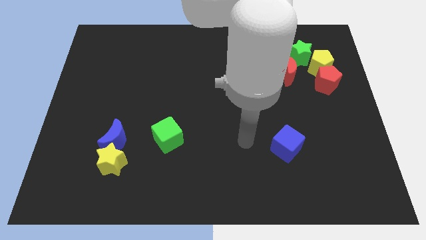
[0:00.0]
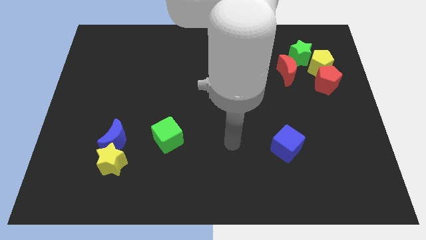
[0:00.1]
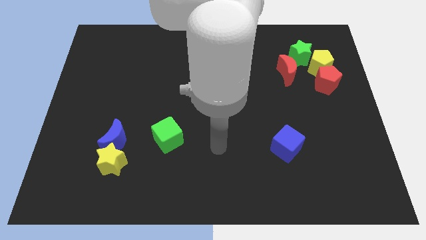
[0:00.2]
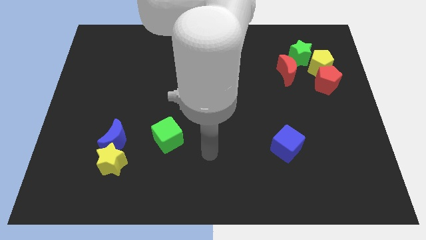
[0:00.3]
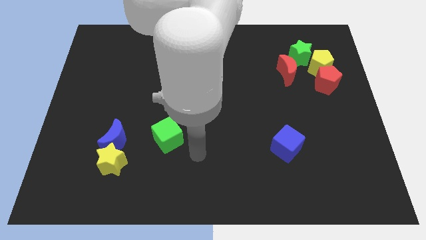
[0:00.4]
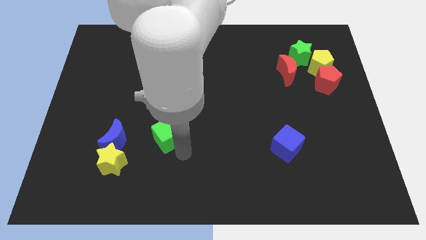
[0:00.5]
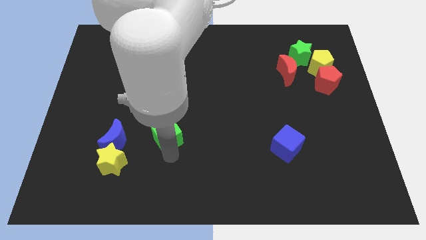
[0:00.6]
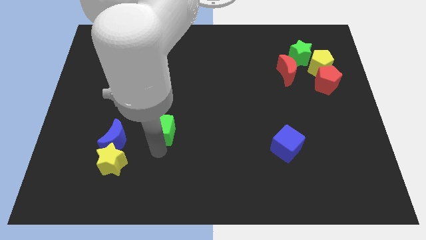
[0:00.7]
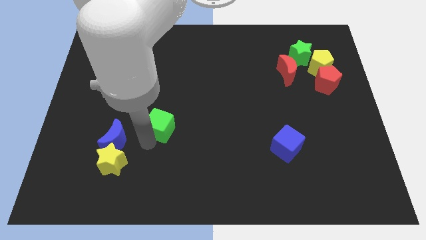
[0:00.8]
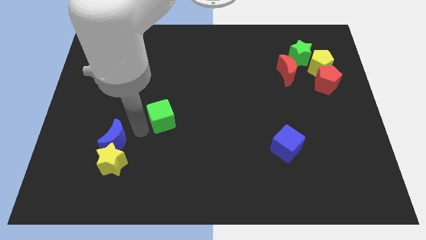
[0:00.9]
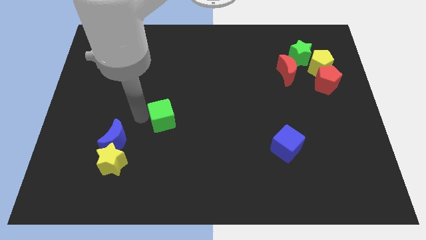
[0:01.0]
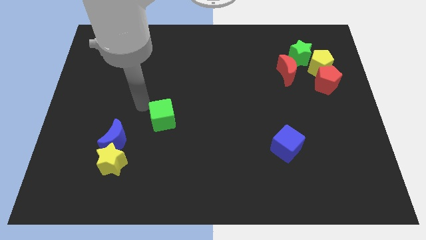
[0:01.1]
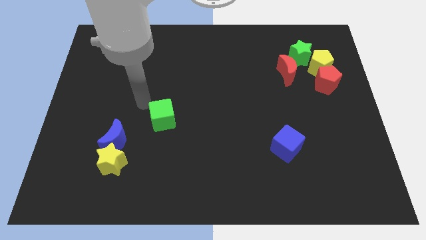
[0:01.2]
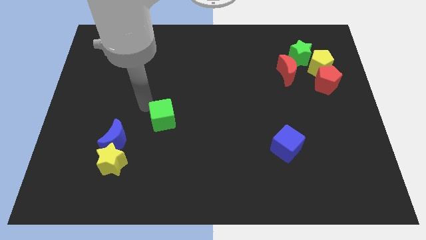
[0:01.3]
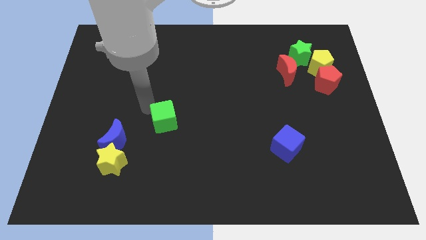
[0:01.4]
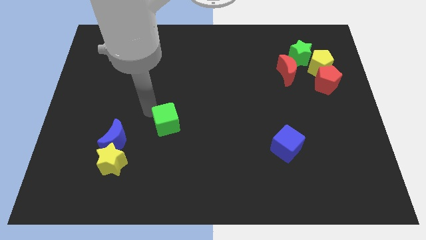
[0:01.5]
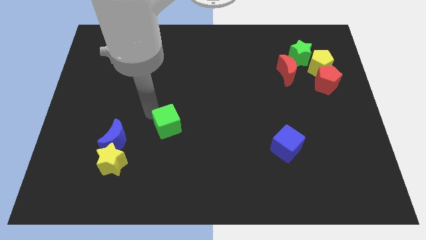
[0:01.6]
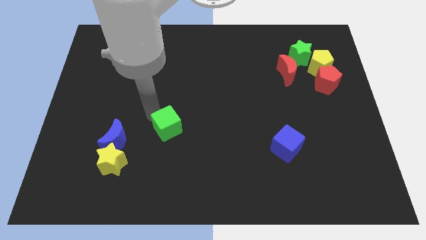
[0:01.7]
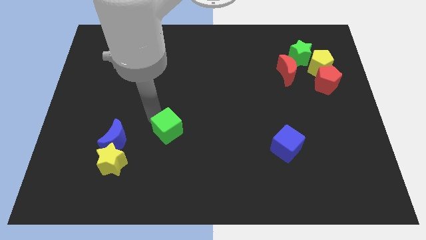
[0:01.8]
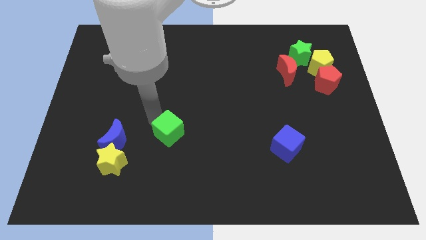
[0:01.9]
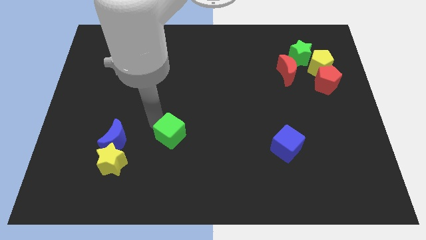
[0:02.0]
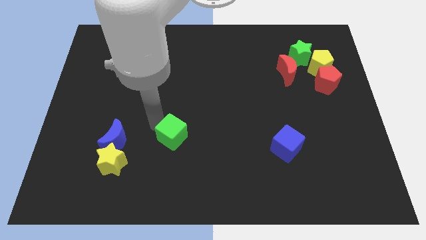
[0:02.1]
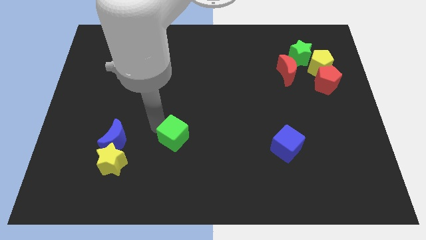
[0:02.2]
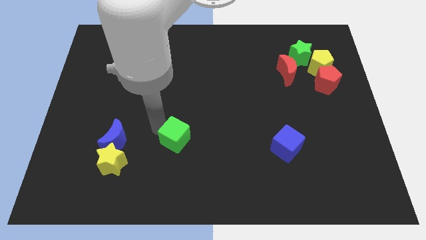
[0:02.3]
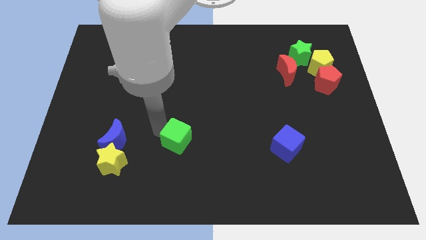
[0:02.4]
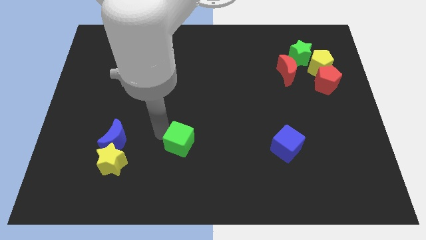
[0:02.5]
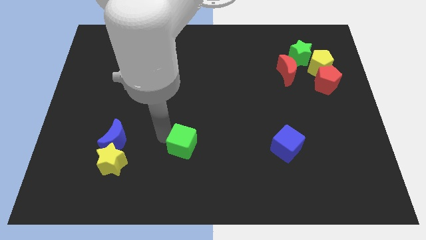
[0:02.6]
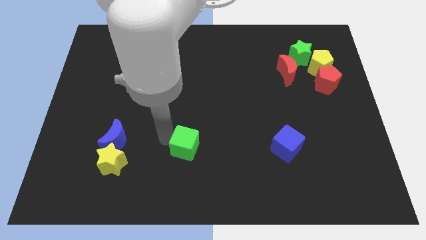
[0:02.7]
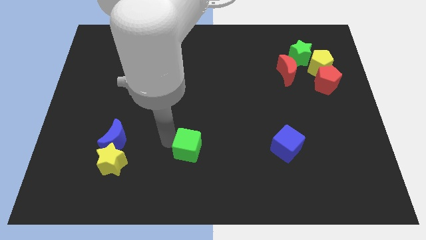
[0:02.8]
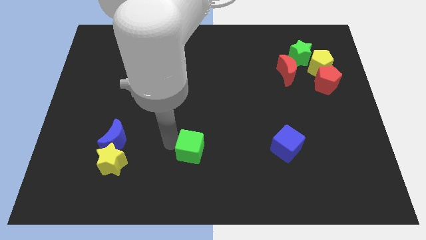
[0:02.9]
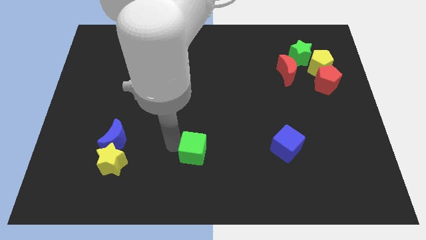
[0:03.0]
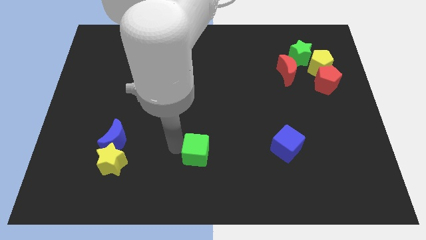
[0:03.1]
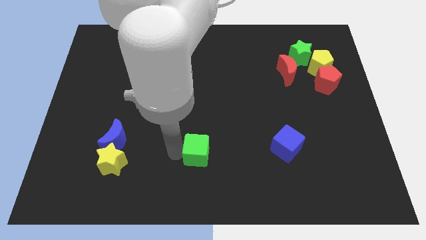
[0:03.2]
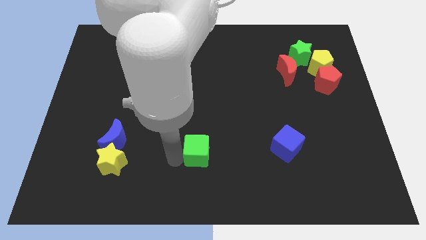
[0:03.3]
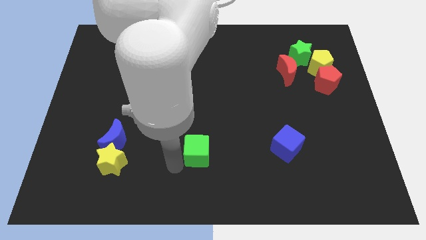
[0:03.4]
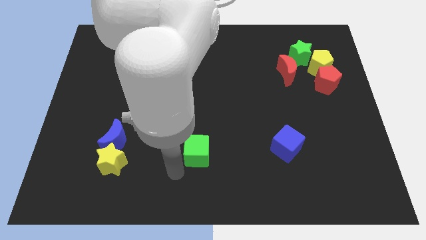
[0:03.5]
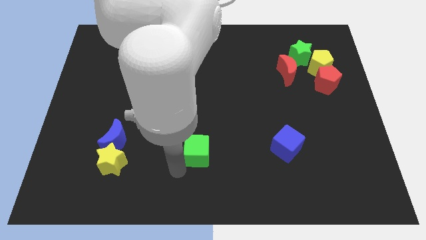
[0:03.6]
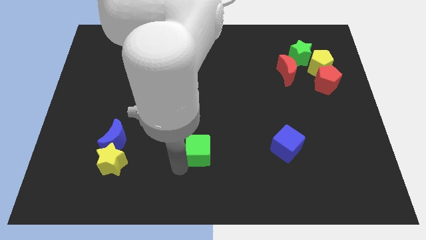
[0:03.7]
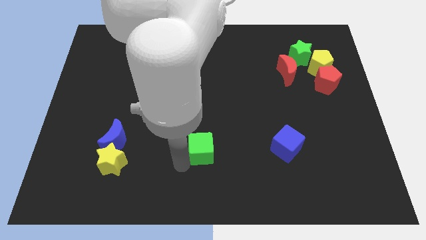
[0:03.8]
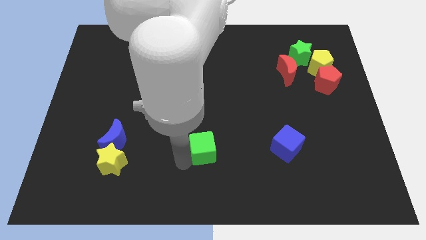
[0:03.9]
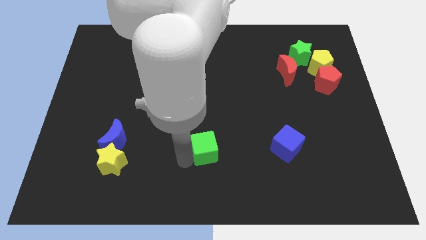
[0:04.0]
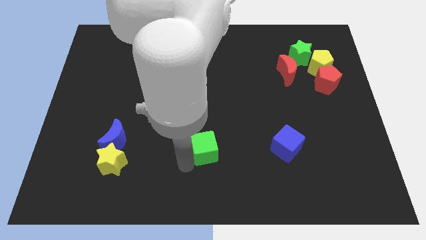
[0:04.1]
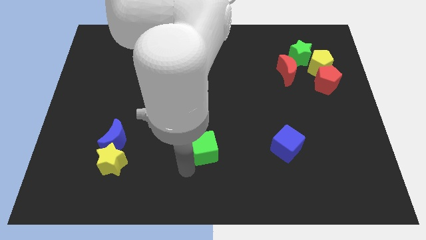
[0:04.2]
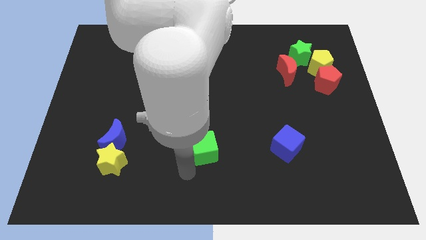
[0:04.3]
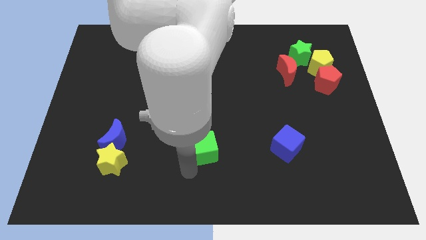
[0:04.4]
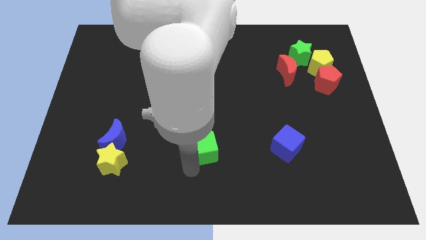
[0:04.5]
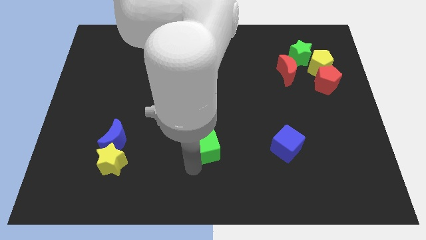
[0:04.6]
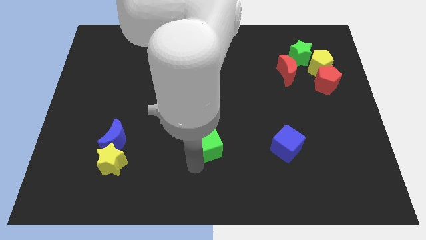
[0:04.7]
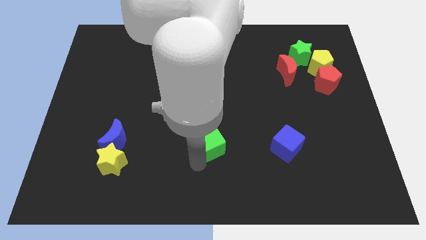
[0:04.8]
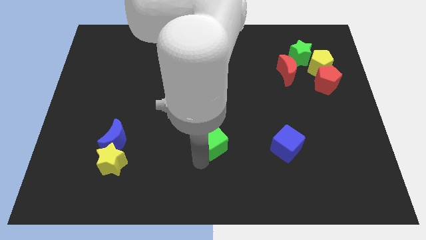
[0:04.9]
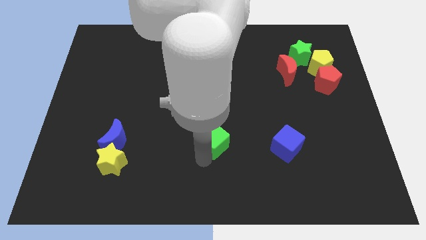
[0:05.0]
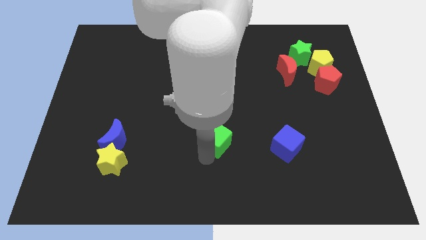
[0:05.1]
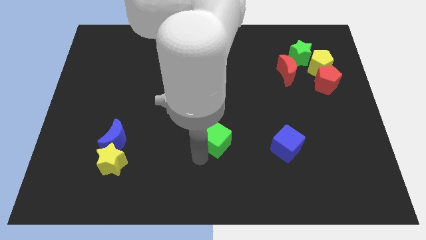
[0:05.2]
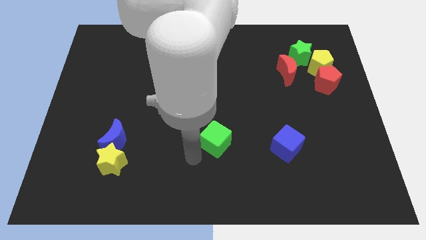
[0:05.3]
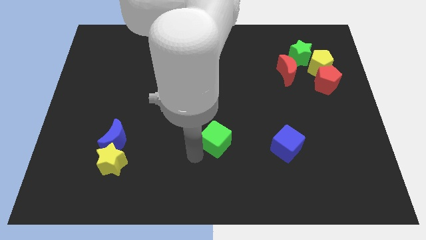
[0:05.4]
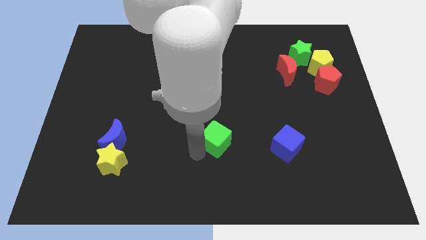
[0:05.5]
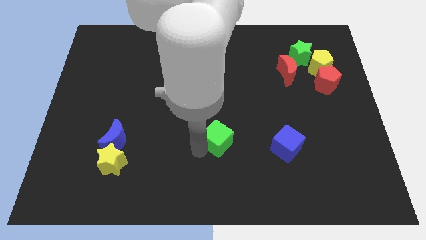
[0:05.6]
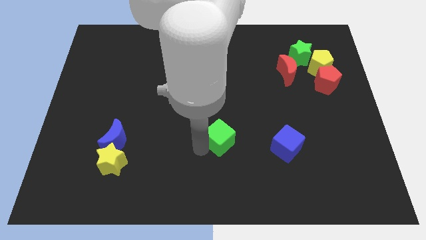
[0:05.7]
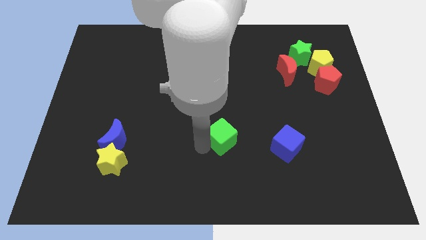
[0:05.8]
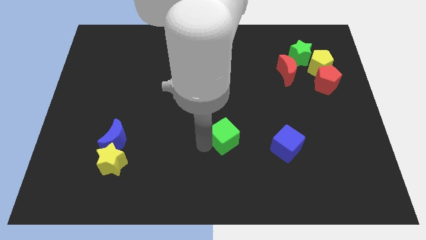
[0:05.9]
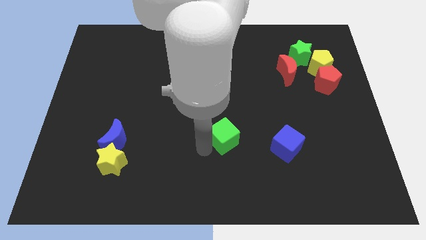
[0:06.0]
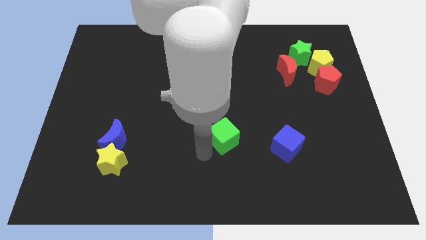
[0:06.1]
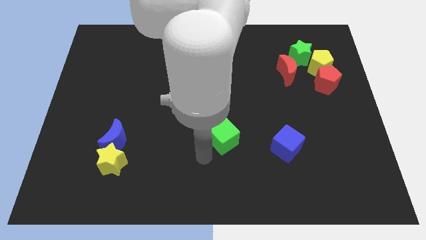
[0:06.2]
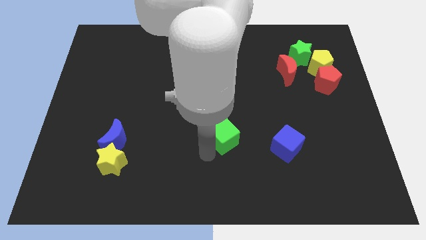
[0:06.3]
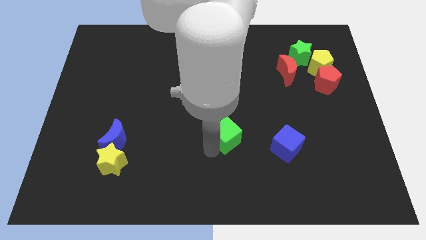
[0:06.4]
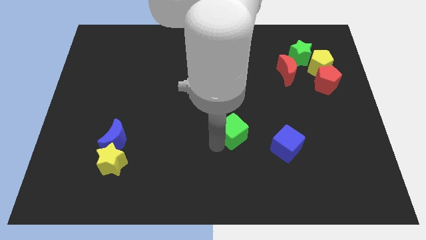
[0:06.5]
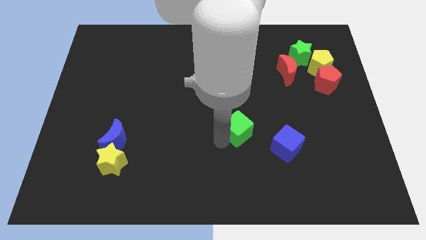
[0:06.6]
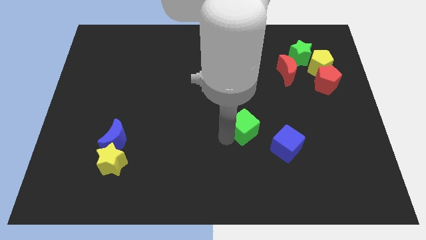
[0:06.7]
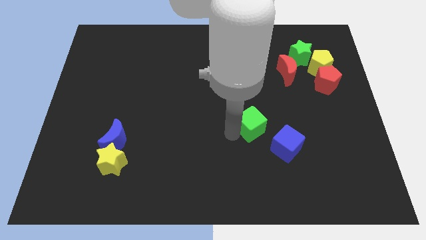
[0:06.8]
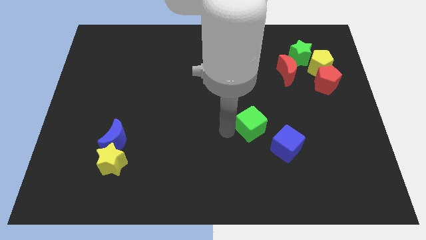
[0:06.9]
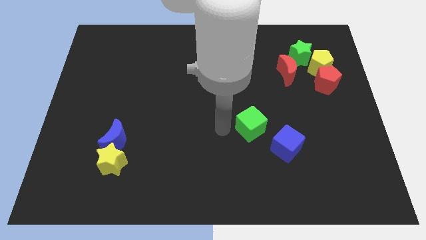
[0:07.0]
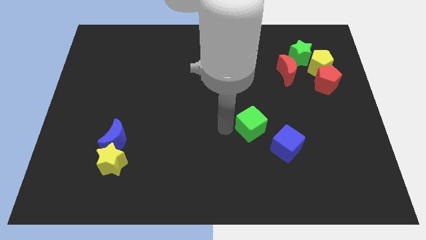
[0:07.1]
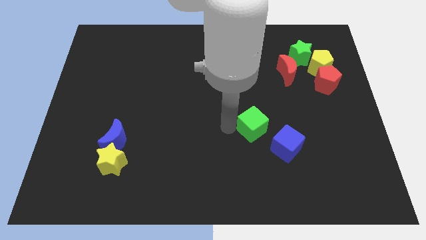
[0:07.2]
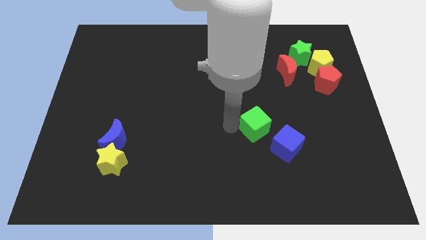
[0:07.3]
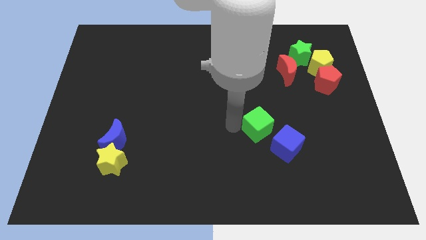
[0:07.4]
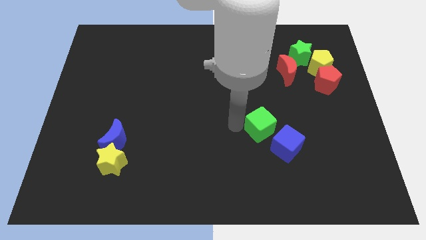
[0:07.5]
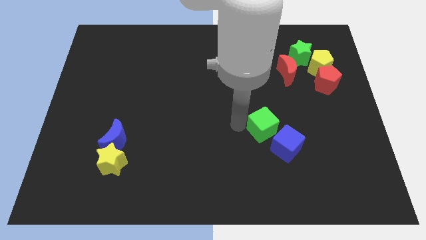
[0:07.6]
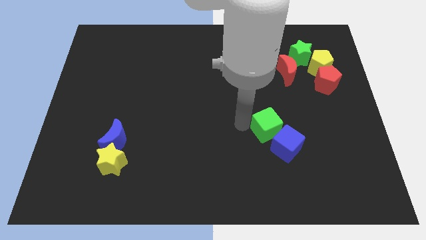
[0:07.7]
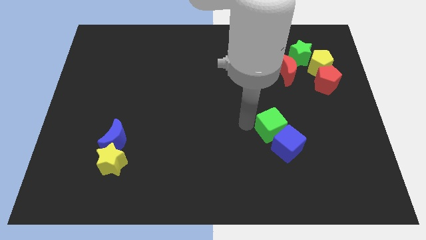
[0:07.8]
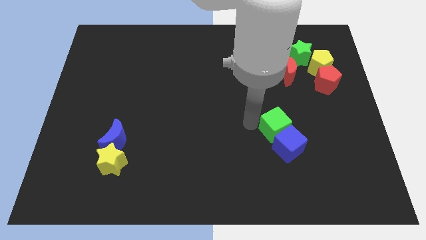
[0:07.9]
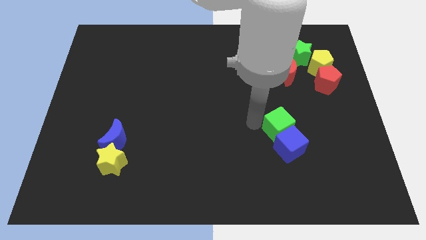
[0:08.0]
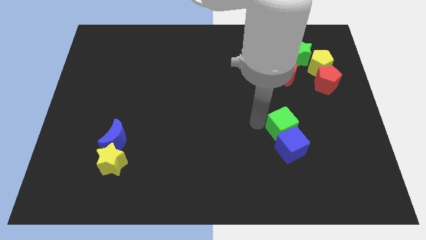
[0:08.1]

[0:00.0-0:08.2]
move the green cube to the top right of the blue cube
